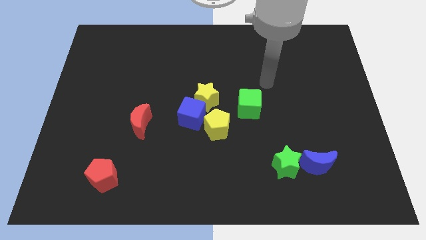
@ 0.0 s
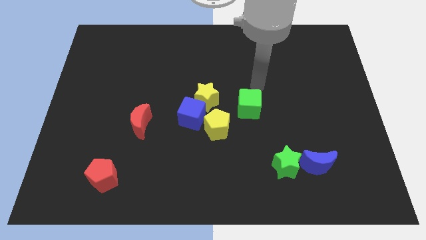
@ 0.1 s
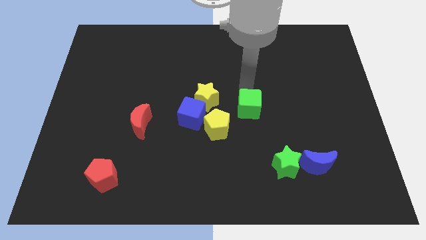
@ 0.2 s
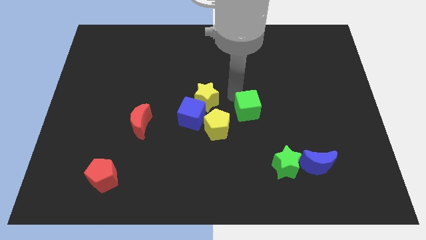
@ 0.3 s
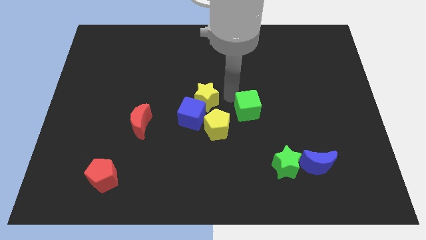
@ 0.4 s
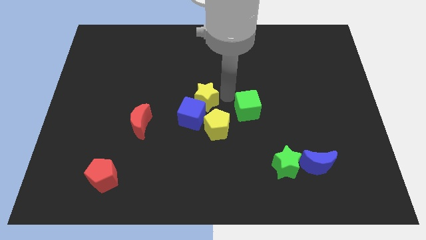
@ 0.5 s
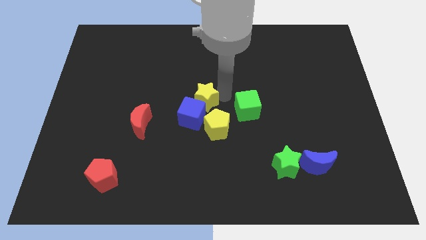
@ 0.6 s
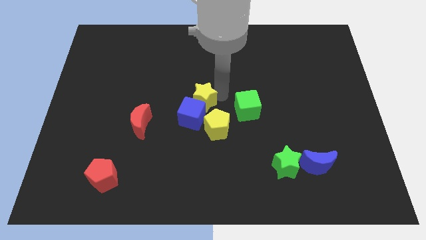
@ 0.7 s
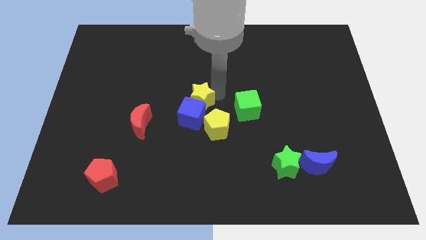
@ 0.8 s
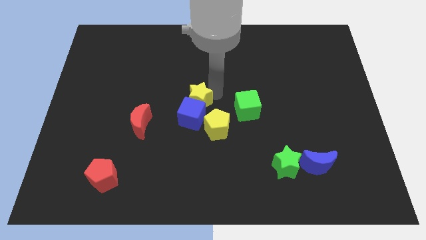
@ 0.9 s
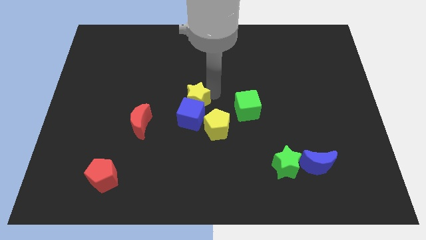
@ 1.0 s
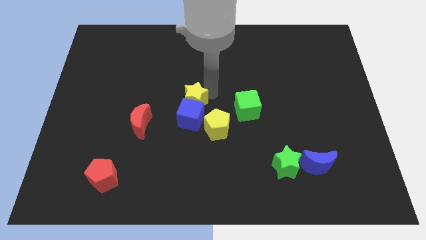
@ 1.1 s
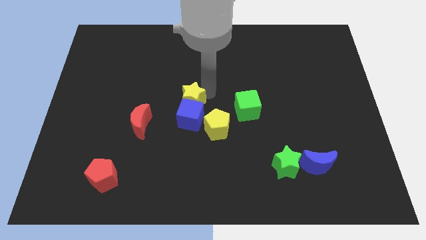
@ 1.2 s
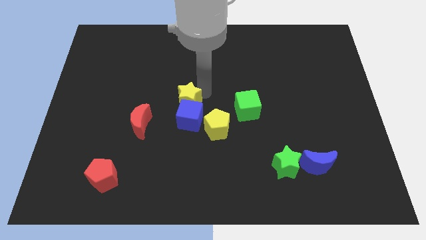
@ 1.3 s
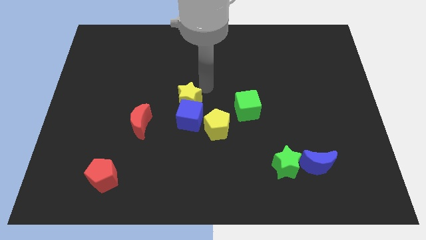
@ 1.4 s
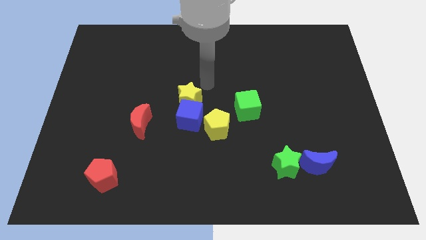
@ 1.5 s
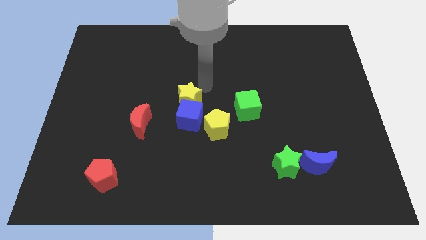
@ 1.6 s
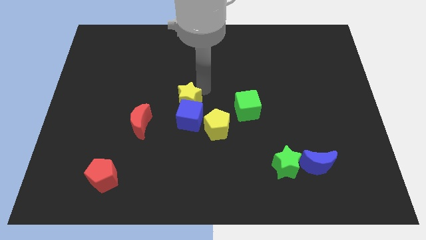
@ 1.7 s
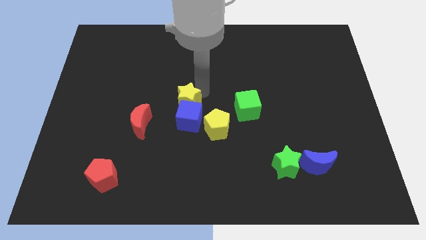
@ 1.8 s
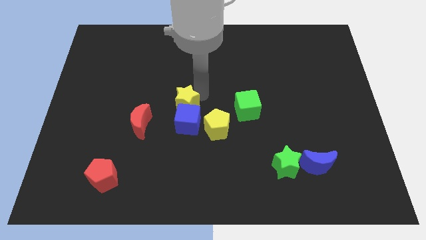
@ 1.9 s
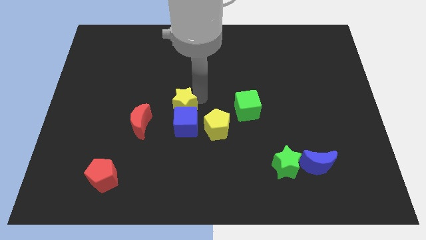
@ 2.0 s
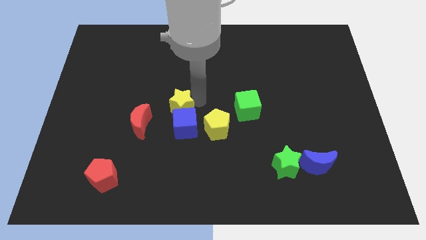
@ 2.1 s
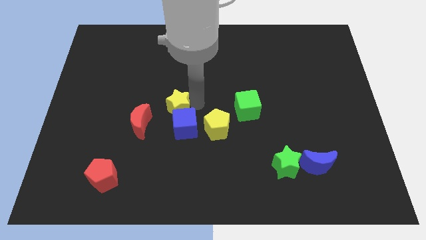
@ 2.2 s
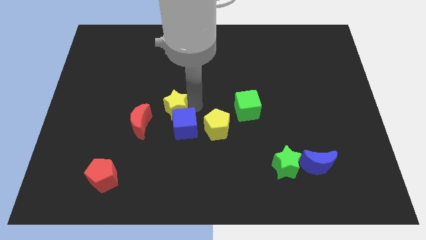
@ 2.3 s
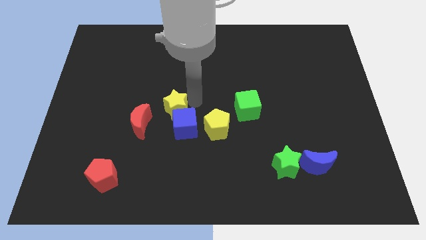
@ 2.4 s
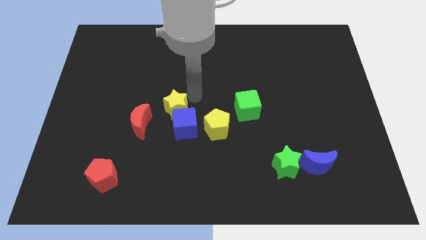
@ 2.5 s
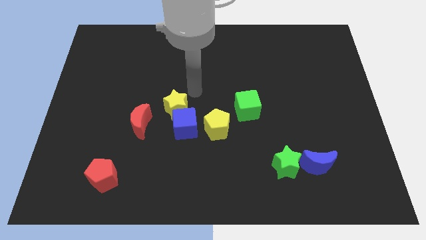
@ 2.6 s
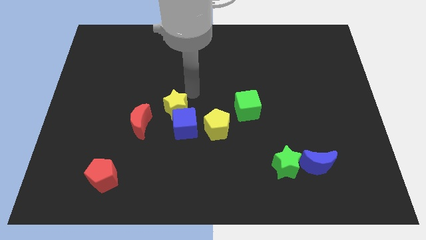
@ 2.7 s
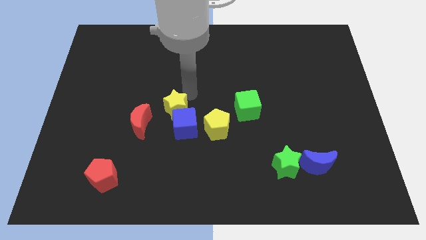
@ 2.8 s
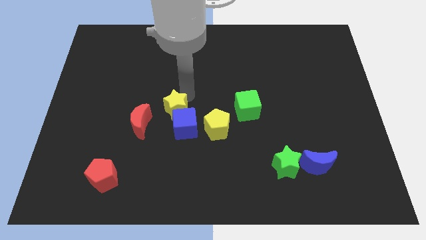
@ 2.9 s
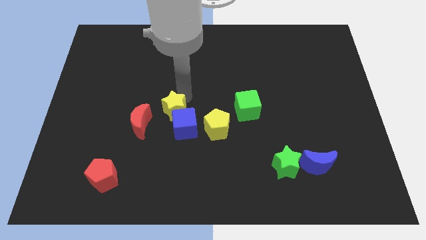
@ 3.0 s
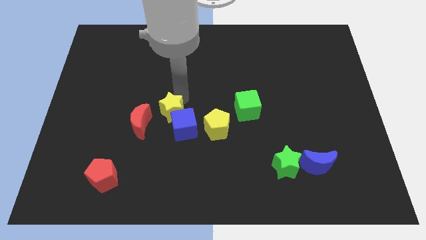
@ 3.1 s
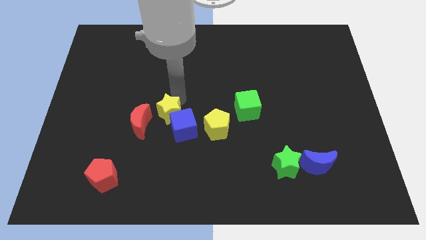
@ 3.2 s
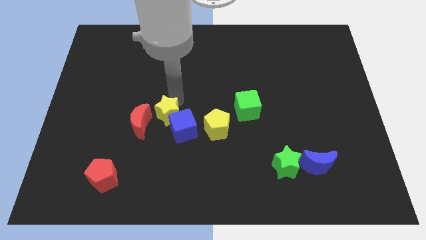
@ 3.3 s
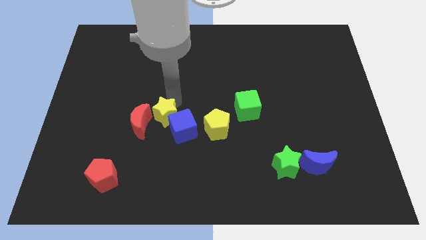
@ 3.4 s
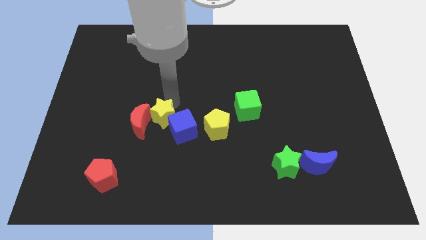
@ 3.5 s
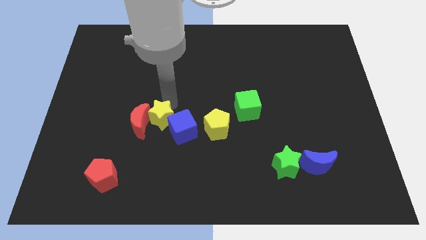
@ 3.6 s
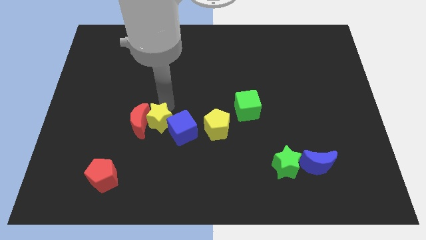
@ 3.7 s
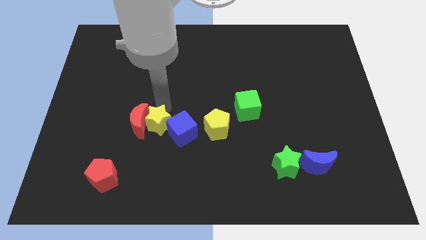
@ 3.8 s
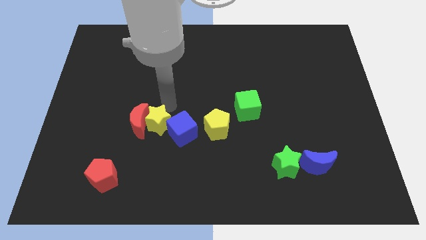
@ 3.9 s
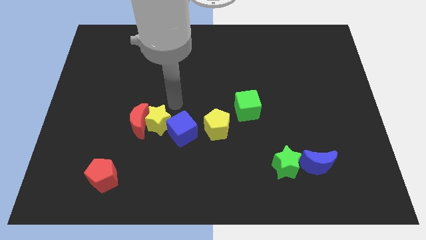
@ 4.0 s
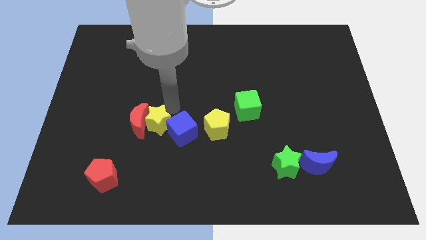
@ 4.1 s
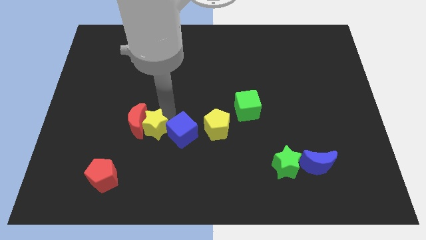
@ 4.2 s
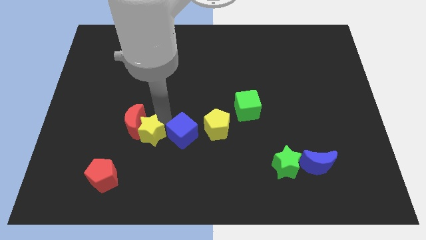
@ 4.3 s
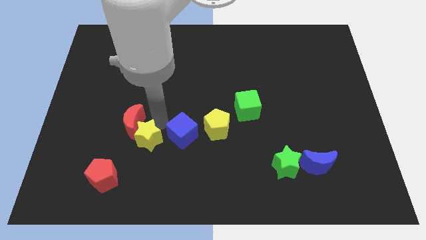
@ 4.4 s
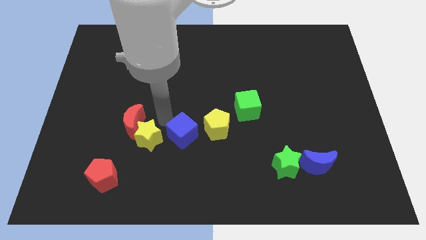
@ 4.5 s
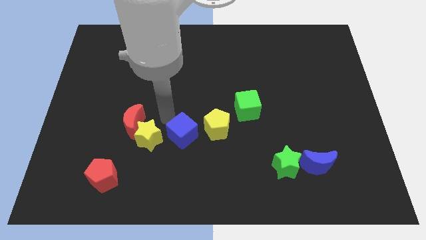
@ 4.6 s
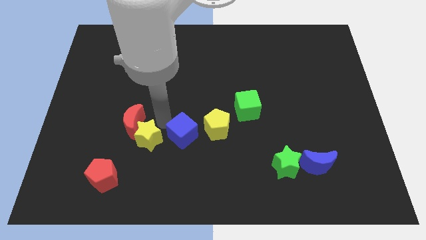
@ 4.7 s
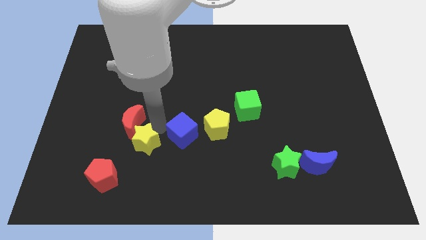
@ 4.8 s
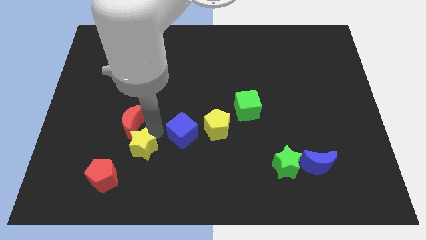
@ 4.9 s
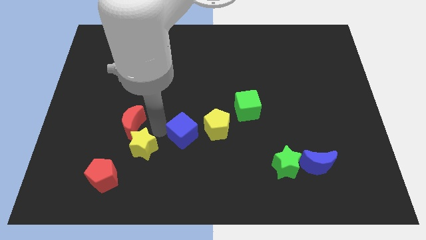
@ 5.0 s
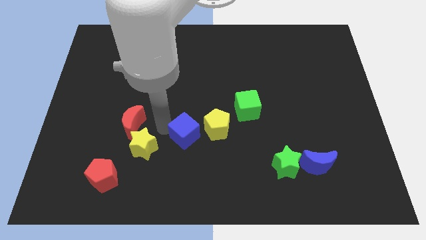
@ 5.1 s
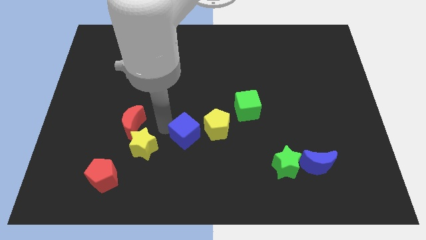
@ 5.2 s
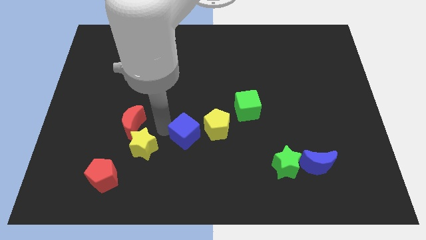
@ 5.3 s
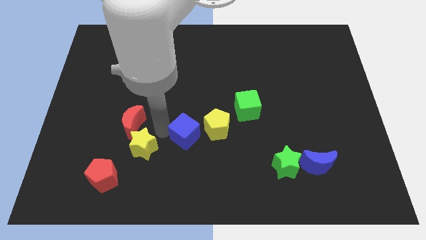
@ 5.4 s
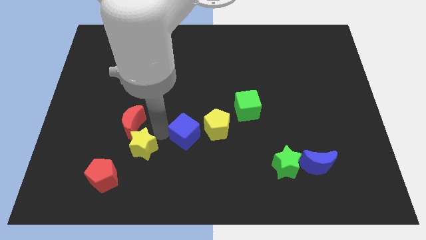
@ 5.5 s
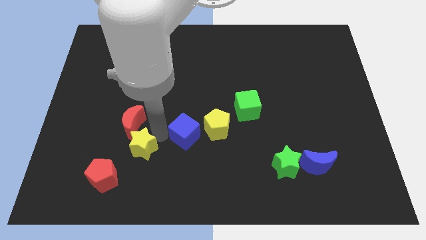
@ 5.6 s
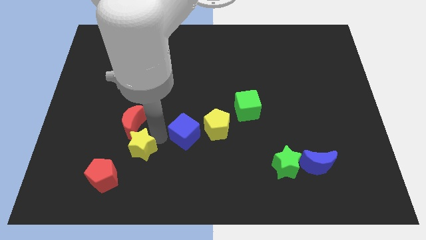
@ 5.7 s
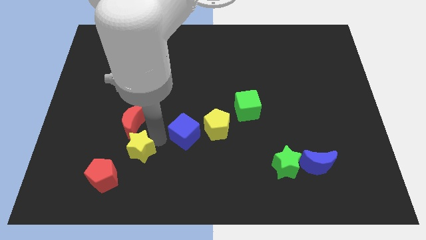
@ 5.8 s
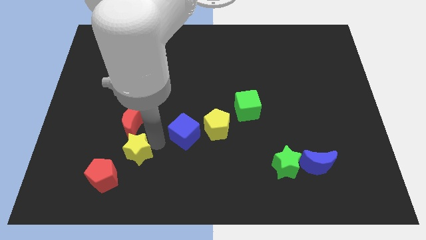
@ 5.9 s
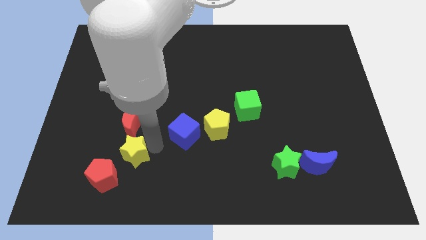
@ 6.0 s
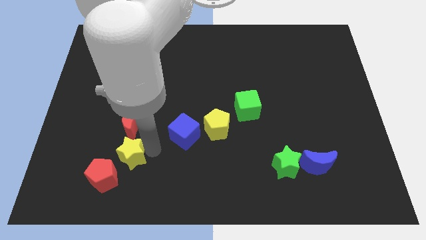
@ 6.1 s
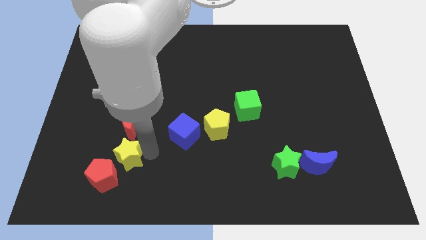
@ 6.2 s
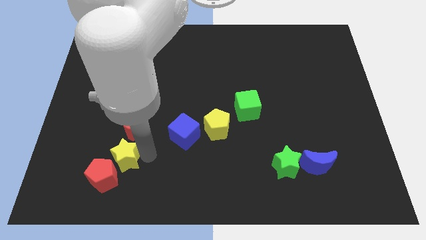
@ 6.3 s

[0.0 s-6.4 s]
put the yellow star towards the red pentagon

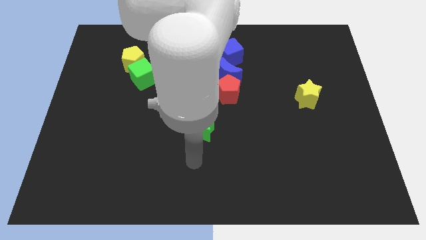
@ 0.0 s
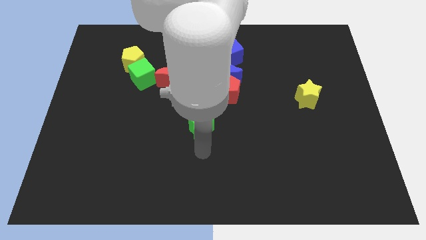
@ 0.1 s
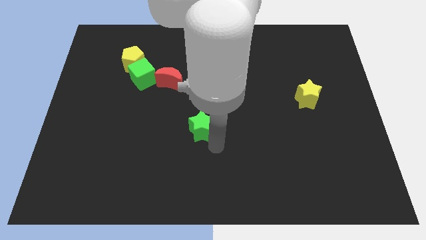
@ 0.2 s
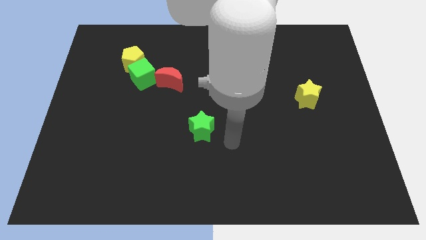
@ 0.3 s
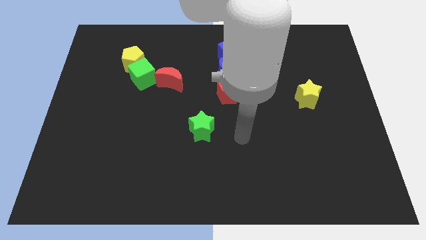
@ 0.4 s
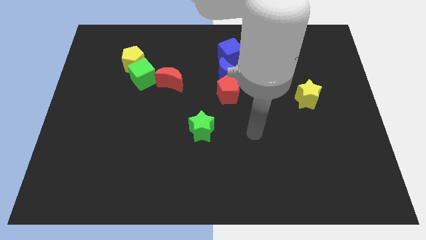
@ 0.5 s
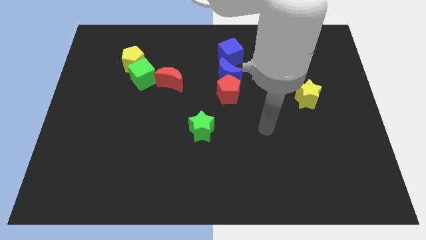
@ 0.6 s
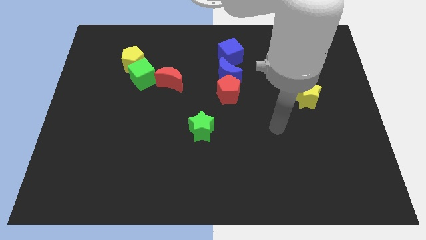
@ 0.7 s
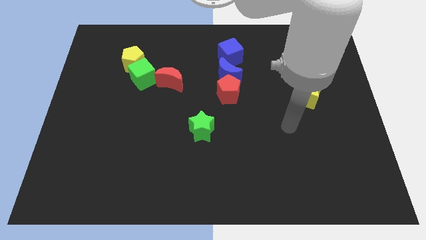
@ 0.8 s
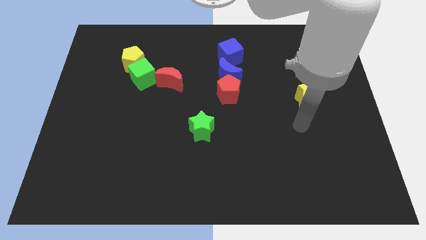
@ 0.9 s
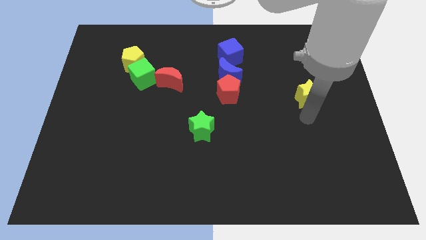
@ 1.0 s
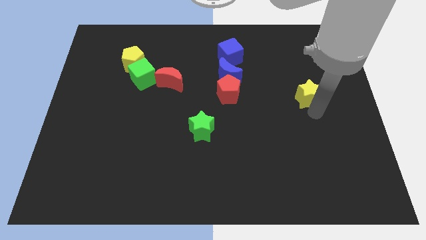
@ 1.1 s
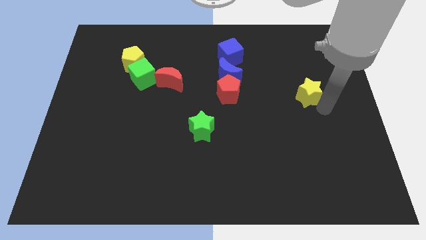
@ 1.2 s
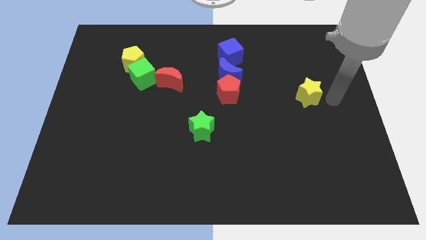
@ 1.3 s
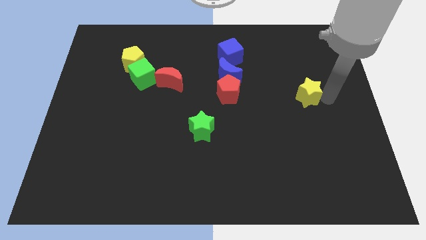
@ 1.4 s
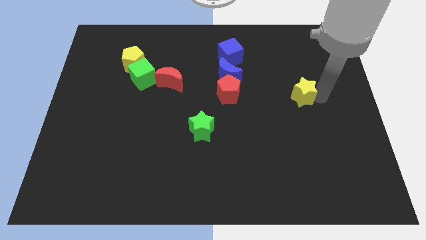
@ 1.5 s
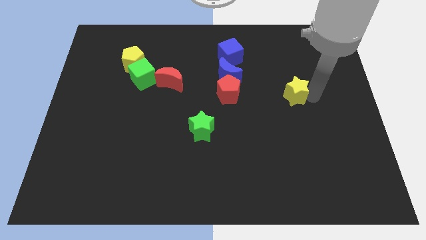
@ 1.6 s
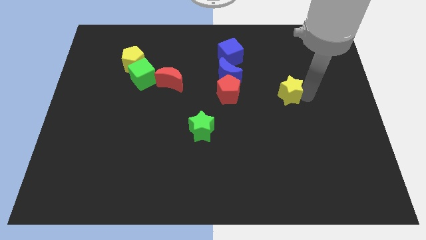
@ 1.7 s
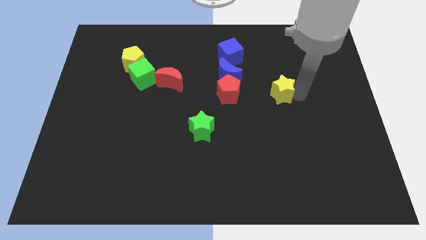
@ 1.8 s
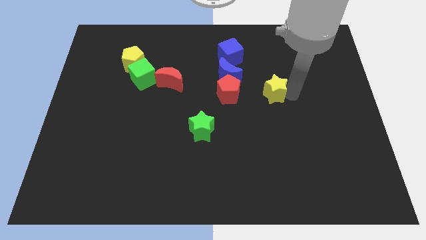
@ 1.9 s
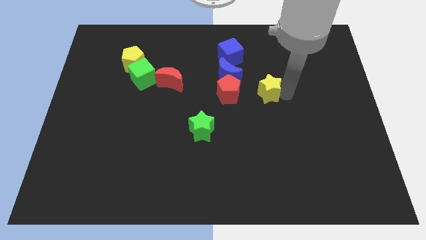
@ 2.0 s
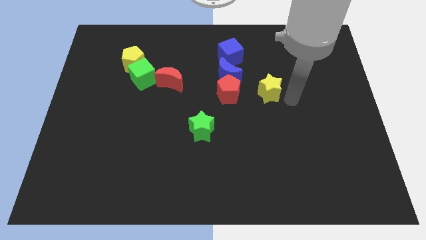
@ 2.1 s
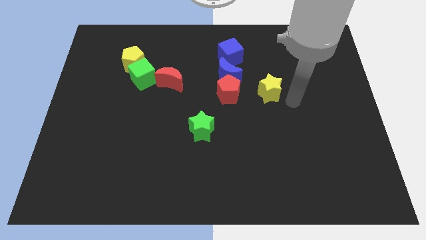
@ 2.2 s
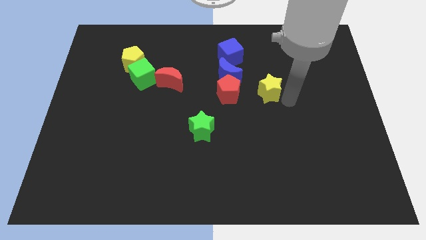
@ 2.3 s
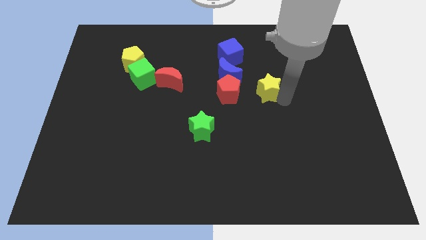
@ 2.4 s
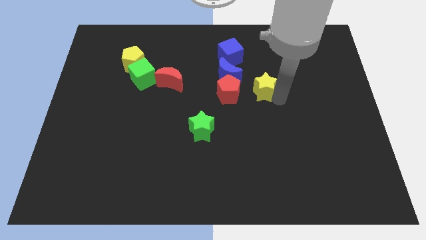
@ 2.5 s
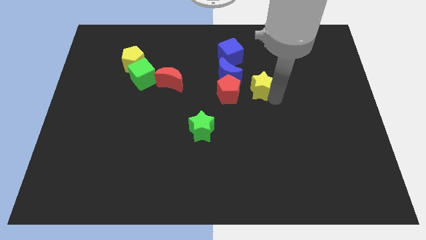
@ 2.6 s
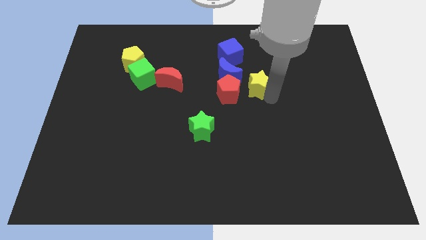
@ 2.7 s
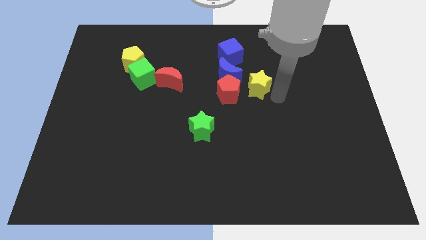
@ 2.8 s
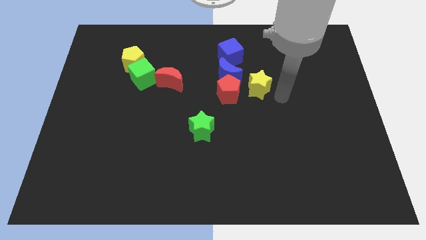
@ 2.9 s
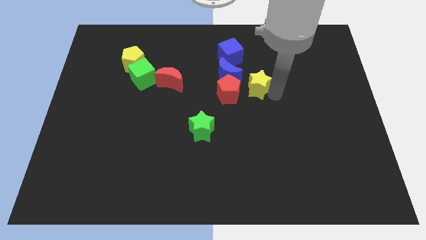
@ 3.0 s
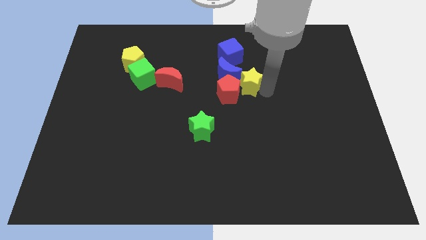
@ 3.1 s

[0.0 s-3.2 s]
push the yellow star to the blue moon
